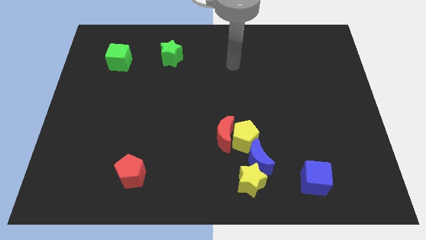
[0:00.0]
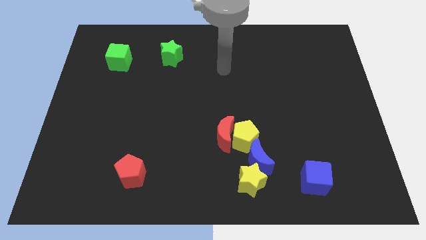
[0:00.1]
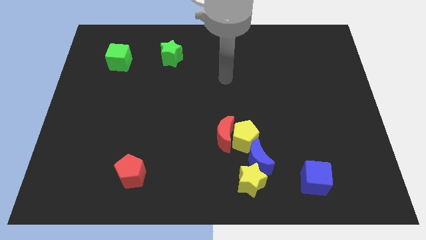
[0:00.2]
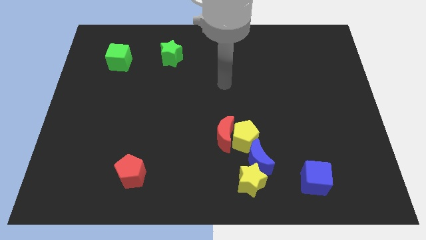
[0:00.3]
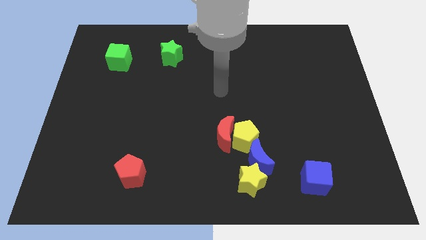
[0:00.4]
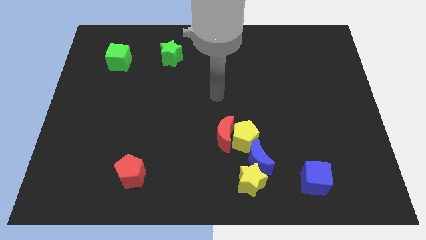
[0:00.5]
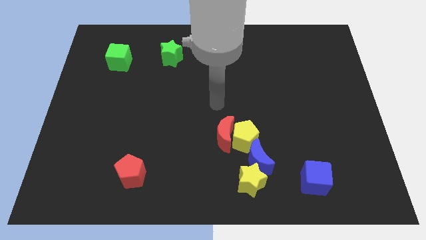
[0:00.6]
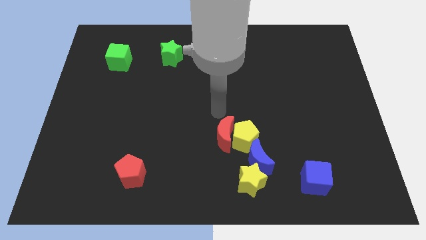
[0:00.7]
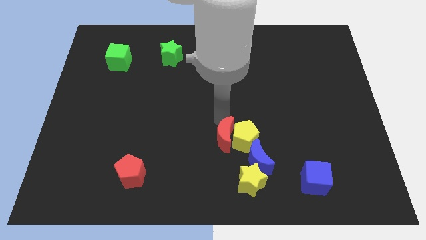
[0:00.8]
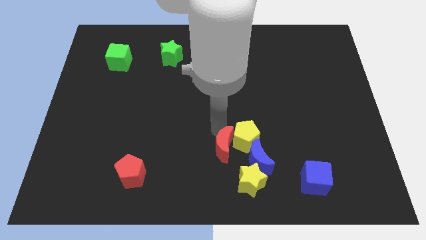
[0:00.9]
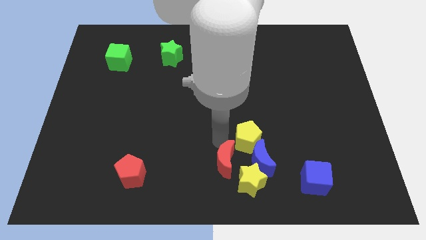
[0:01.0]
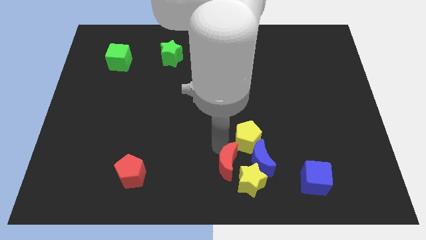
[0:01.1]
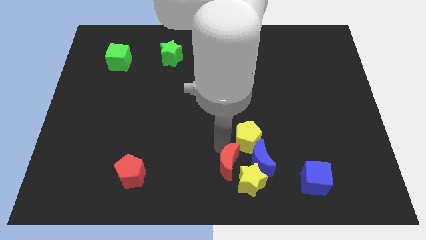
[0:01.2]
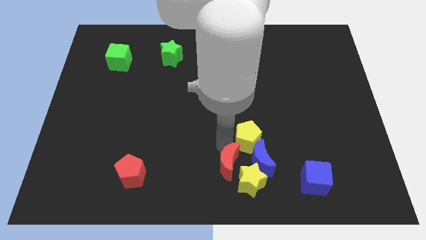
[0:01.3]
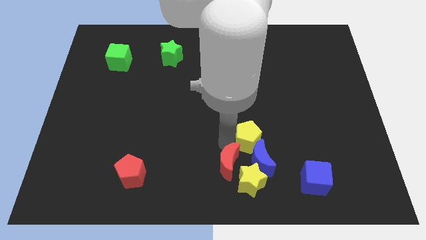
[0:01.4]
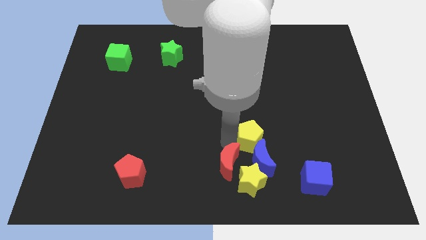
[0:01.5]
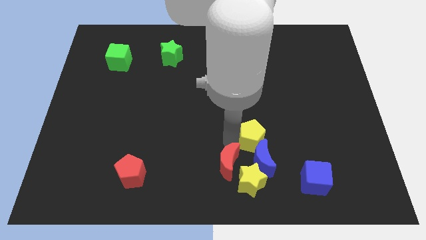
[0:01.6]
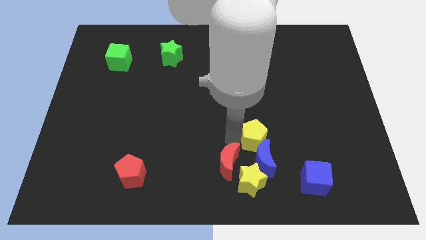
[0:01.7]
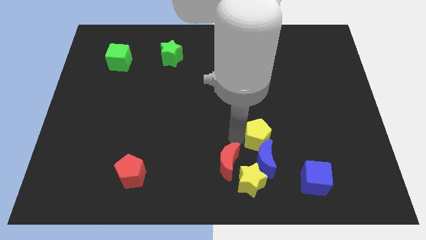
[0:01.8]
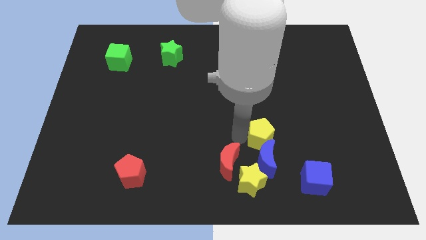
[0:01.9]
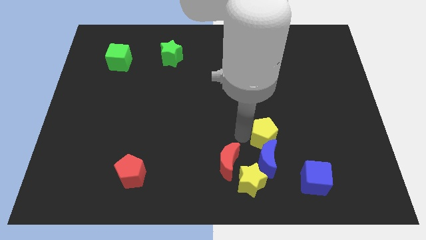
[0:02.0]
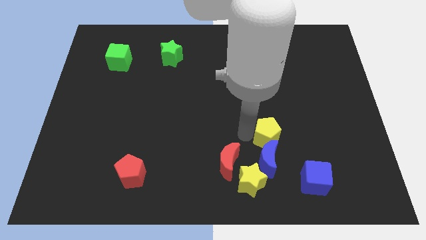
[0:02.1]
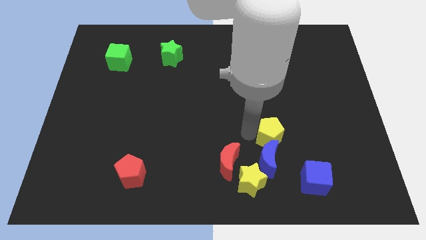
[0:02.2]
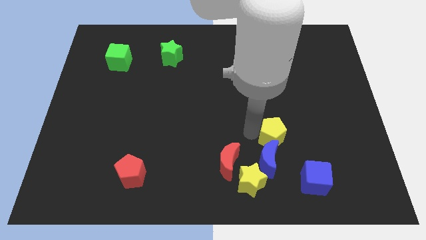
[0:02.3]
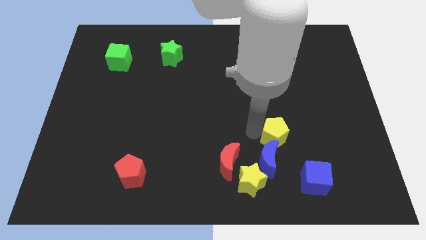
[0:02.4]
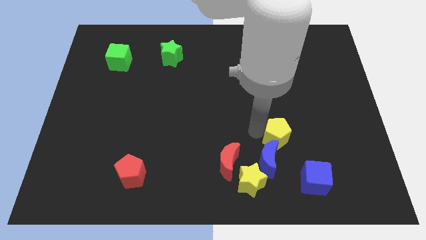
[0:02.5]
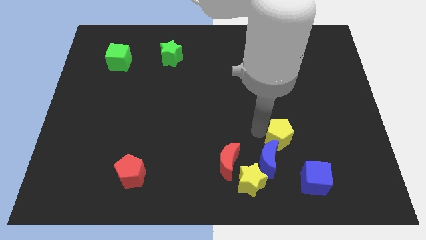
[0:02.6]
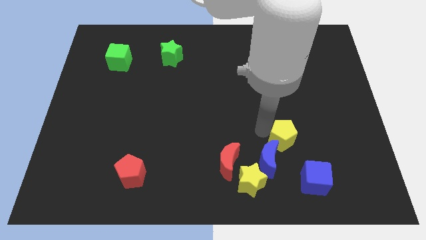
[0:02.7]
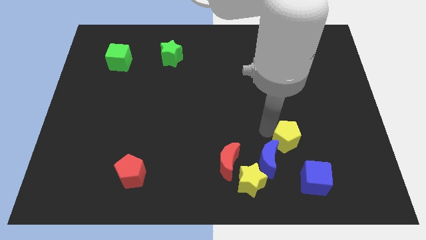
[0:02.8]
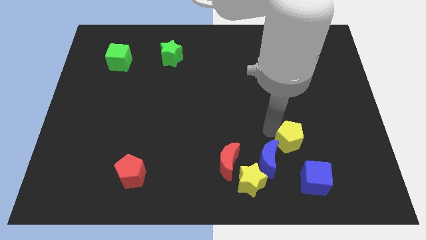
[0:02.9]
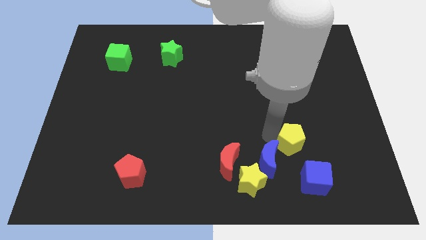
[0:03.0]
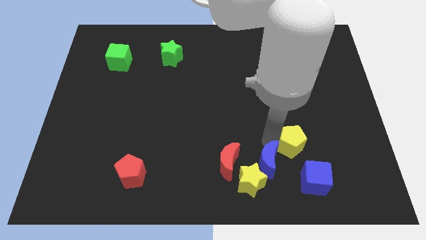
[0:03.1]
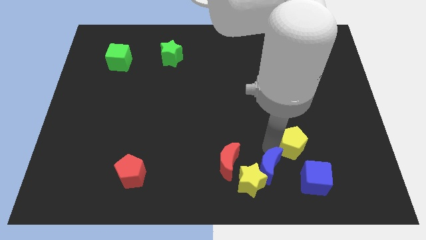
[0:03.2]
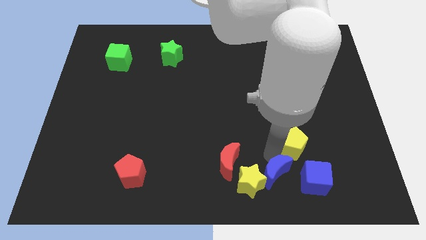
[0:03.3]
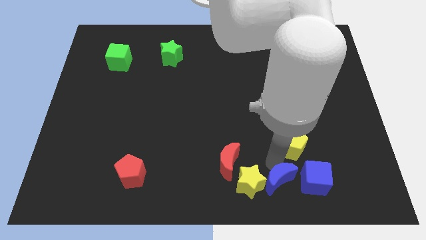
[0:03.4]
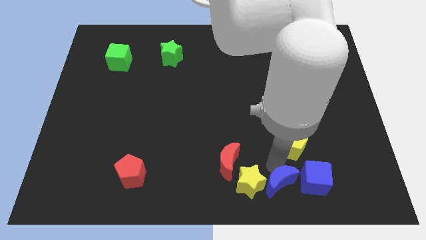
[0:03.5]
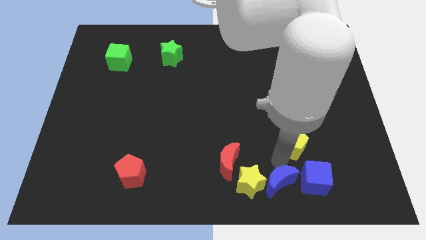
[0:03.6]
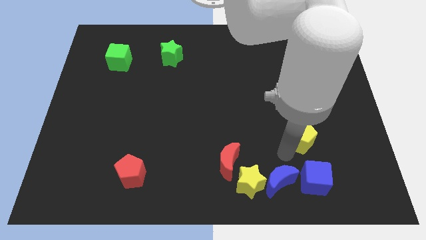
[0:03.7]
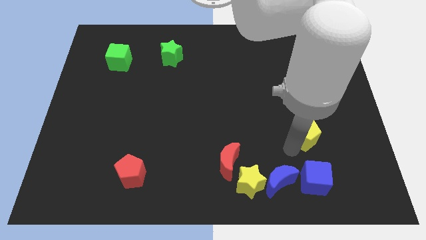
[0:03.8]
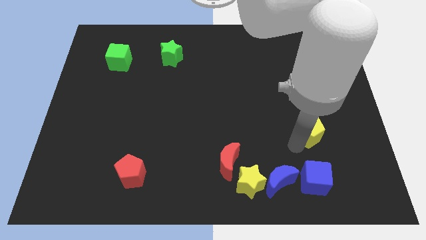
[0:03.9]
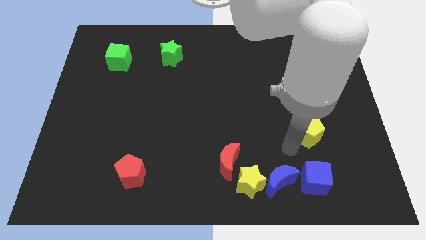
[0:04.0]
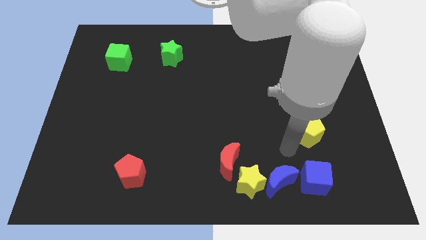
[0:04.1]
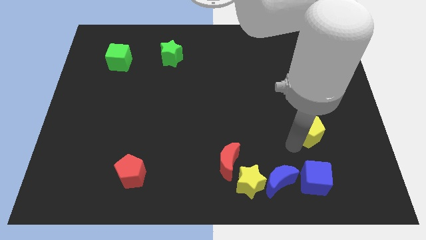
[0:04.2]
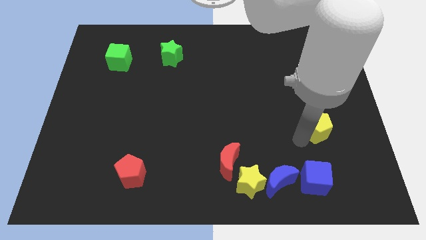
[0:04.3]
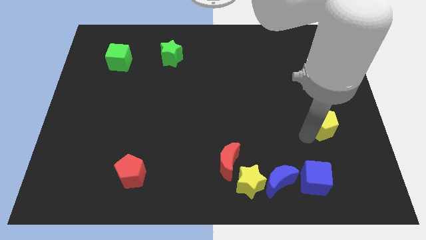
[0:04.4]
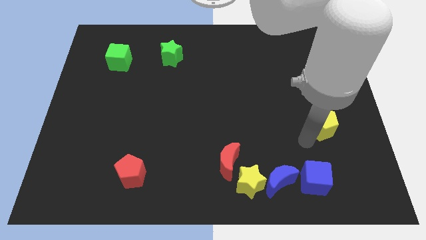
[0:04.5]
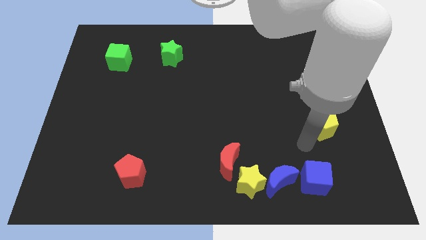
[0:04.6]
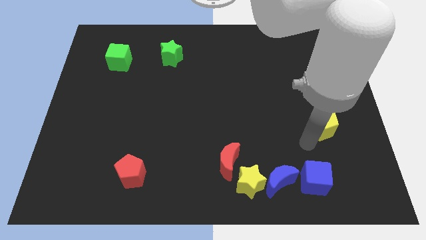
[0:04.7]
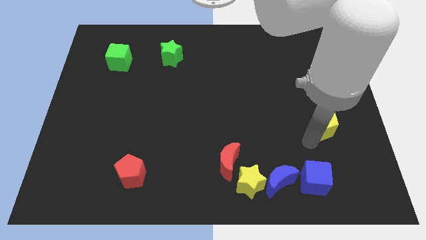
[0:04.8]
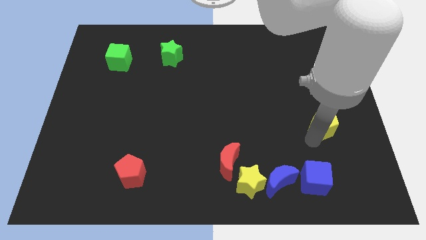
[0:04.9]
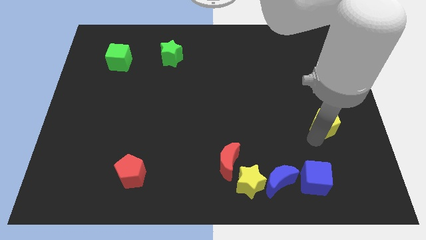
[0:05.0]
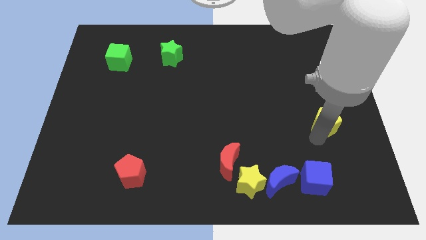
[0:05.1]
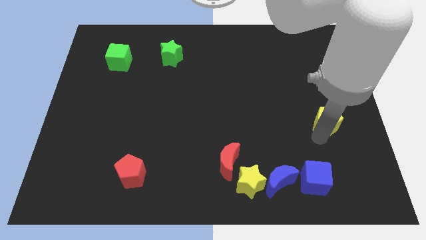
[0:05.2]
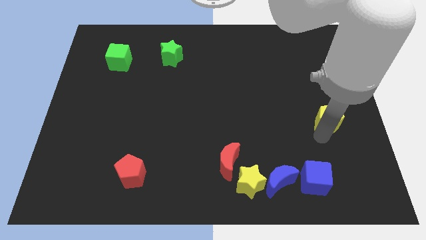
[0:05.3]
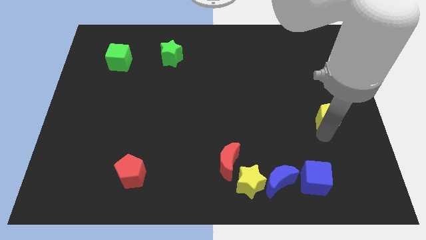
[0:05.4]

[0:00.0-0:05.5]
slide the yellow pentagon to the center right

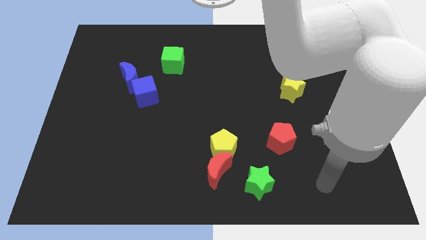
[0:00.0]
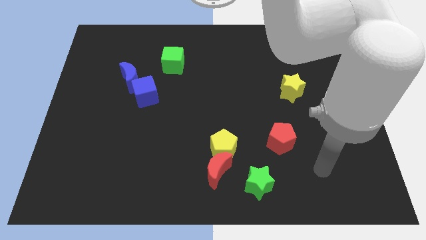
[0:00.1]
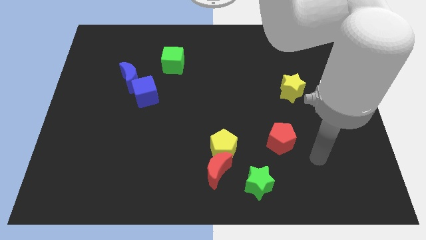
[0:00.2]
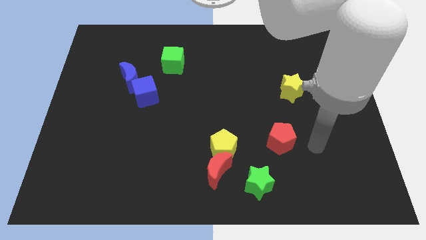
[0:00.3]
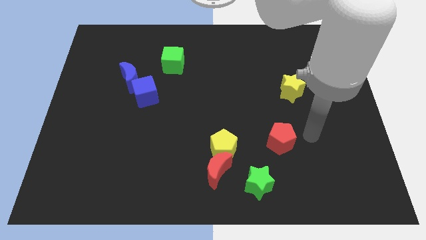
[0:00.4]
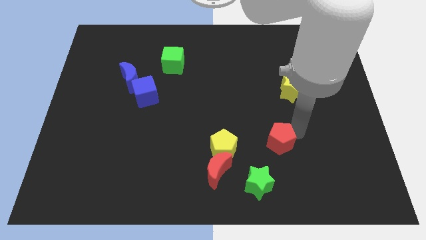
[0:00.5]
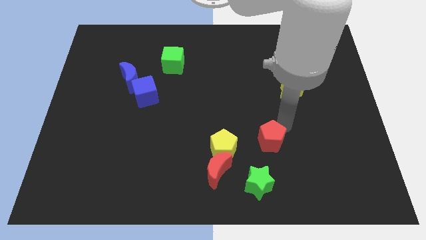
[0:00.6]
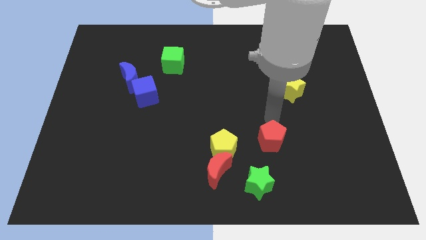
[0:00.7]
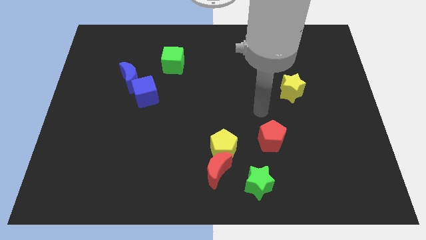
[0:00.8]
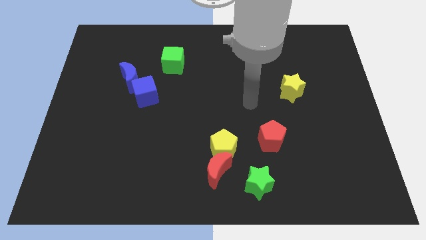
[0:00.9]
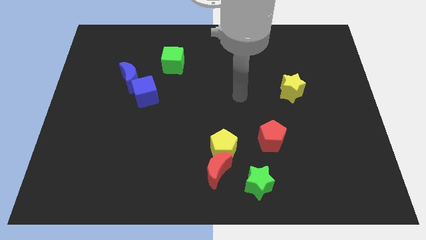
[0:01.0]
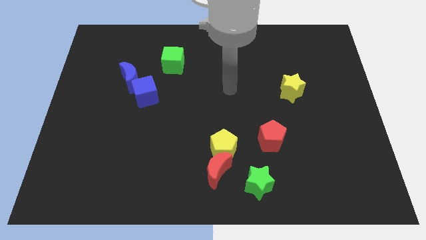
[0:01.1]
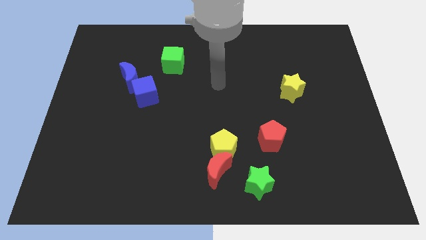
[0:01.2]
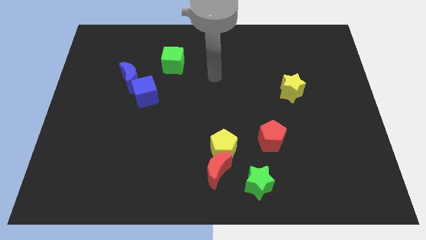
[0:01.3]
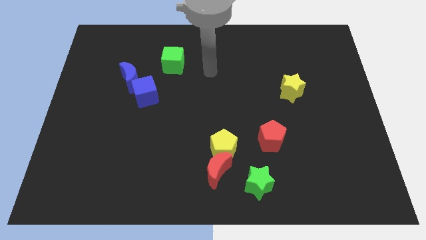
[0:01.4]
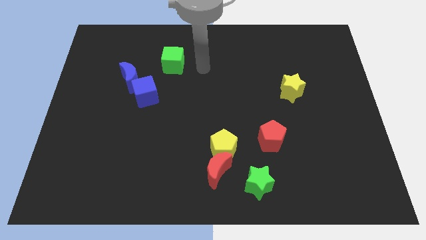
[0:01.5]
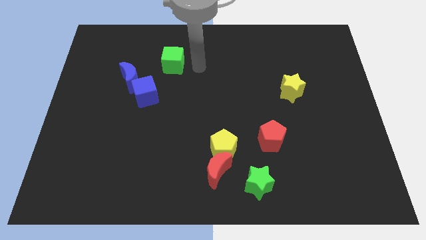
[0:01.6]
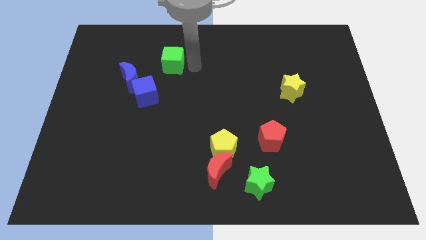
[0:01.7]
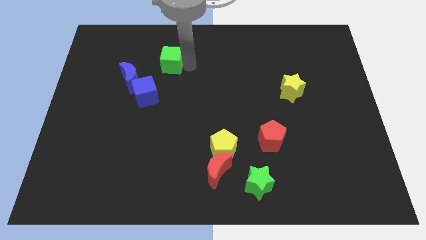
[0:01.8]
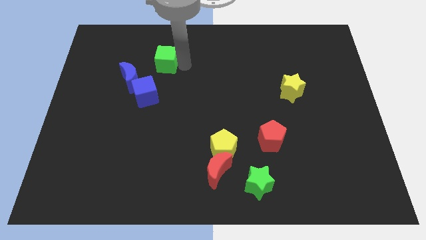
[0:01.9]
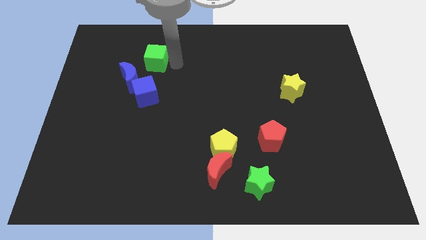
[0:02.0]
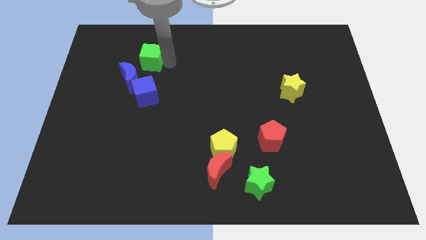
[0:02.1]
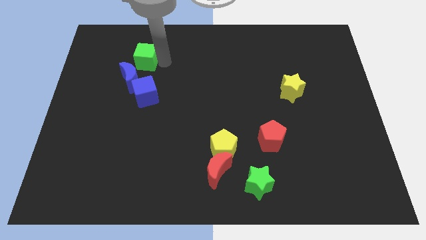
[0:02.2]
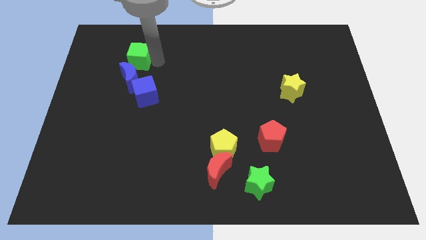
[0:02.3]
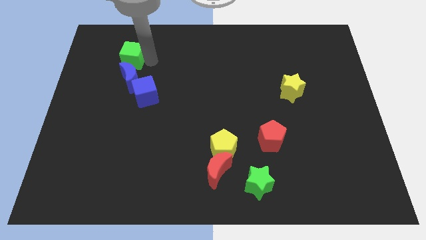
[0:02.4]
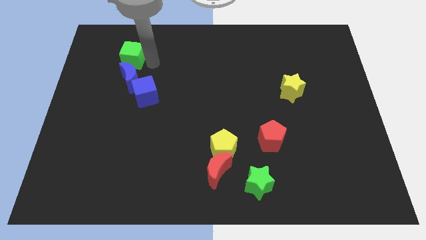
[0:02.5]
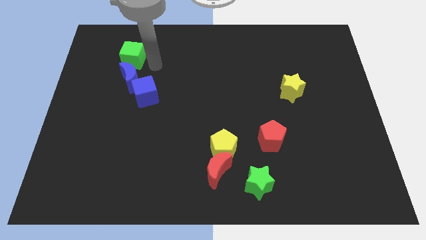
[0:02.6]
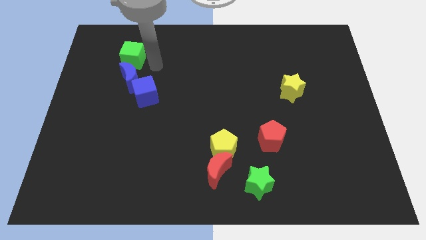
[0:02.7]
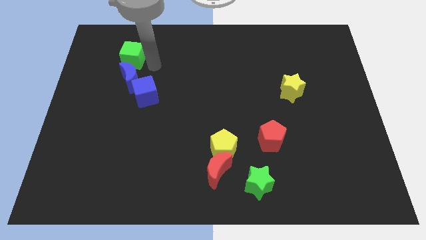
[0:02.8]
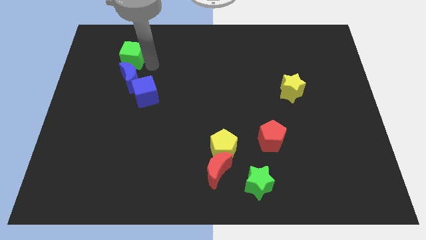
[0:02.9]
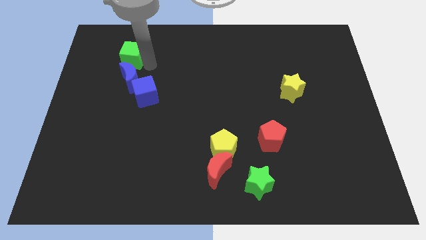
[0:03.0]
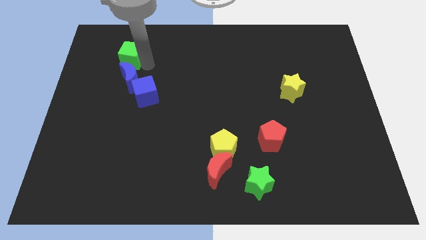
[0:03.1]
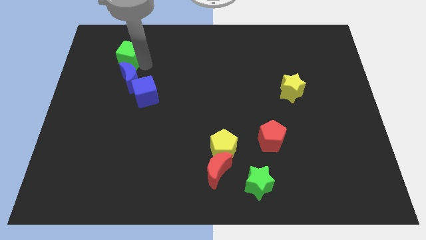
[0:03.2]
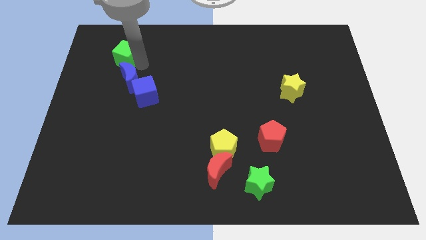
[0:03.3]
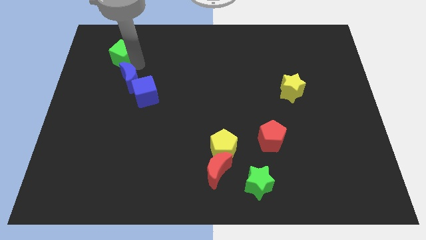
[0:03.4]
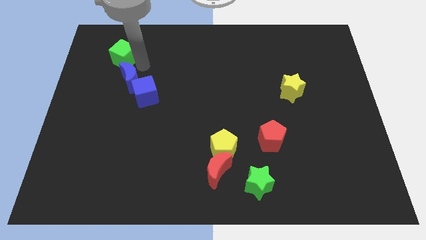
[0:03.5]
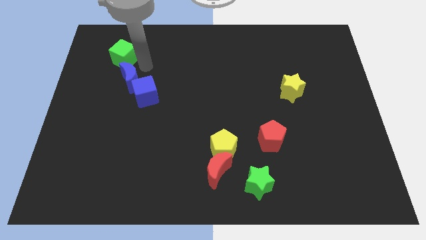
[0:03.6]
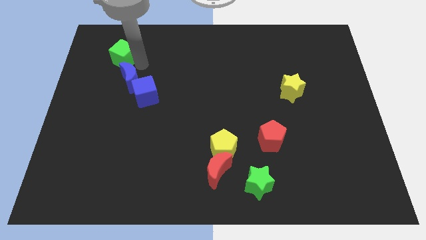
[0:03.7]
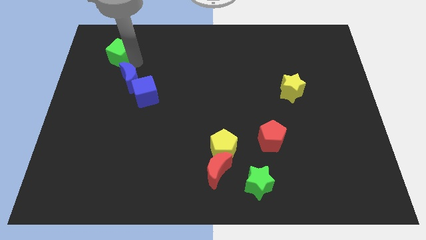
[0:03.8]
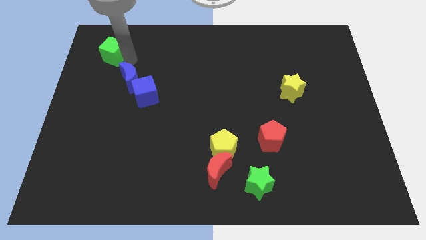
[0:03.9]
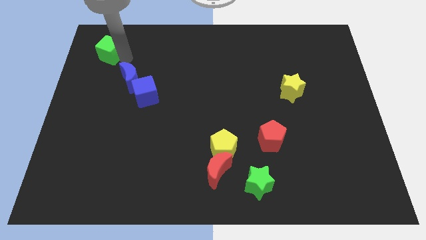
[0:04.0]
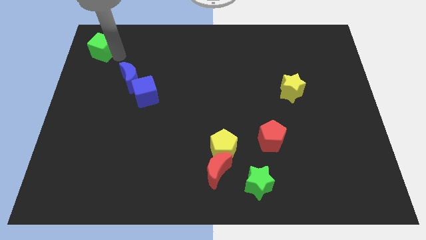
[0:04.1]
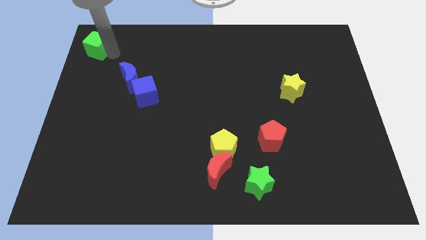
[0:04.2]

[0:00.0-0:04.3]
move the green cube to the top left corner
